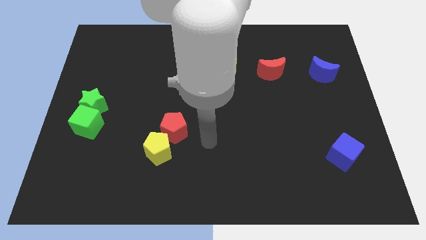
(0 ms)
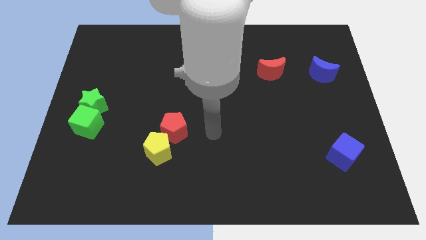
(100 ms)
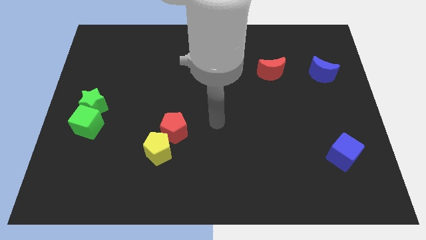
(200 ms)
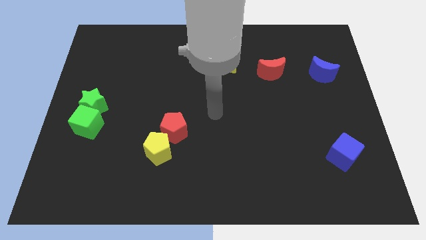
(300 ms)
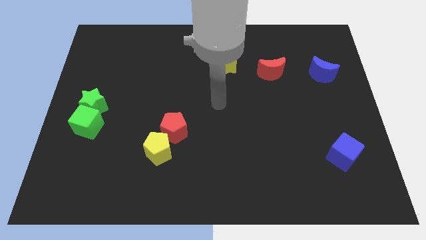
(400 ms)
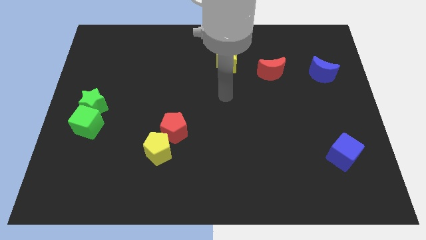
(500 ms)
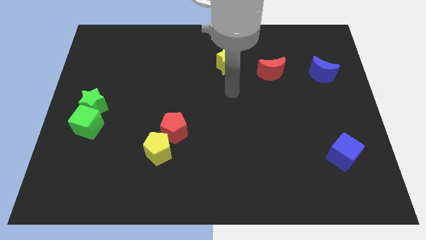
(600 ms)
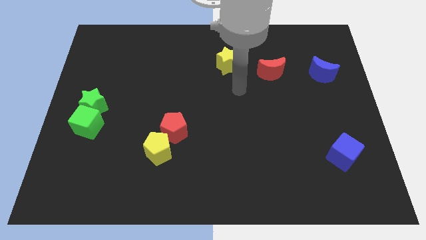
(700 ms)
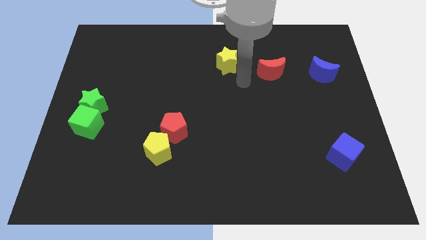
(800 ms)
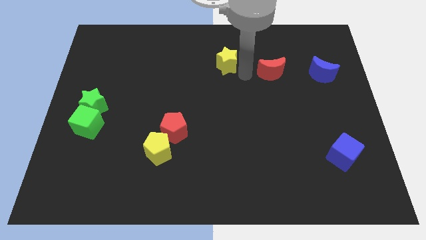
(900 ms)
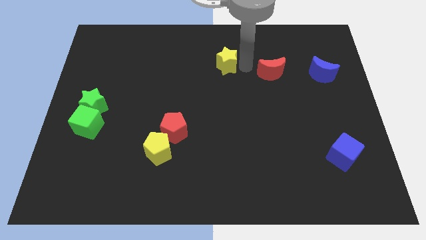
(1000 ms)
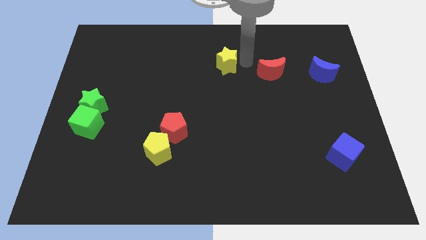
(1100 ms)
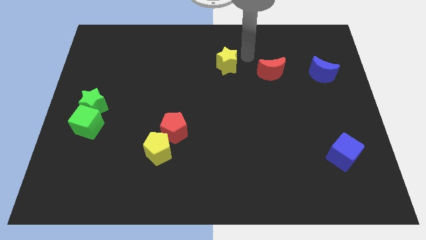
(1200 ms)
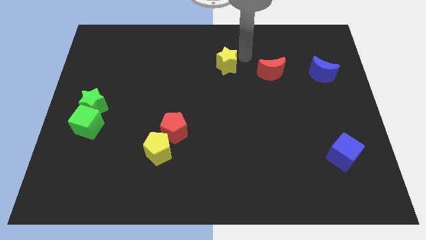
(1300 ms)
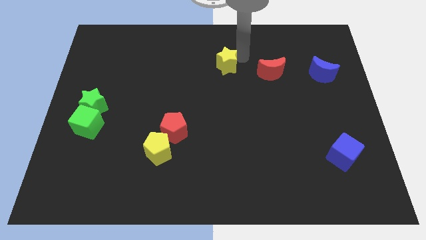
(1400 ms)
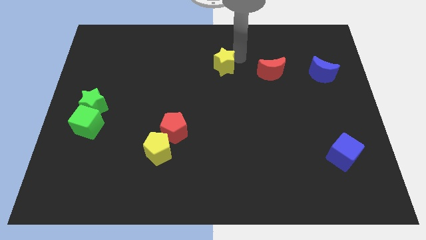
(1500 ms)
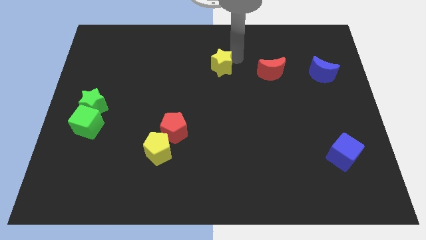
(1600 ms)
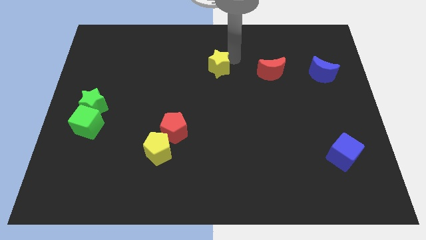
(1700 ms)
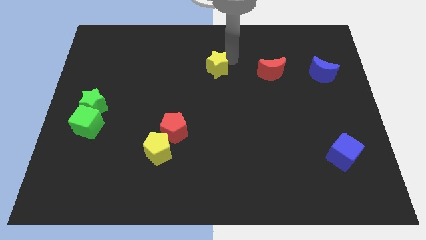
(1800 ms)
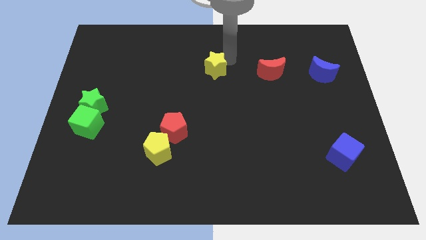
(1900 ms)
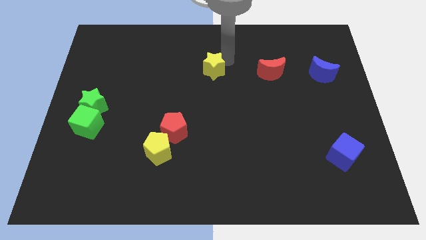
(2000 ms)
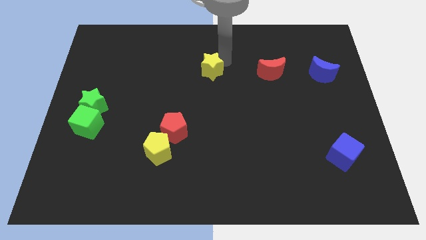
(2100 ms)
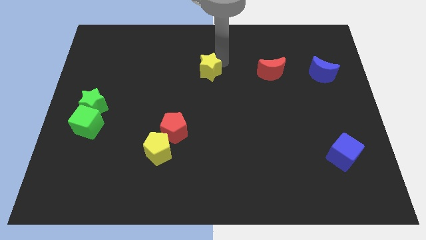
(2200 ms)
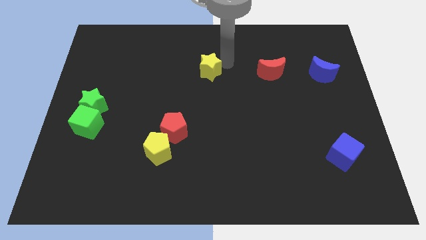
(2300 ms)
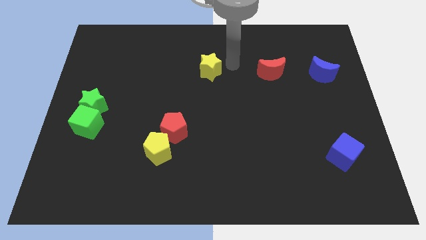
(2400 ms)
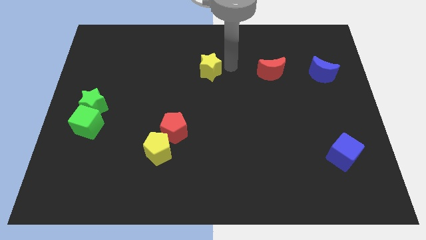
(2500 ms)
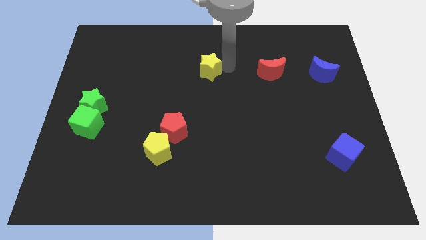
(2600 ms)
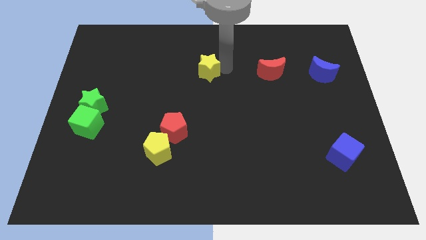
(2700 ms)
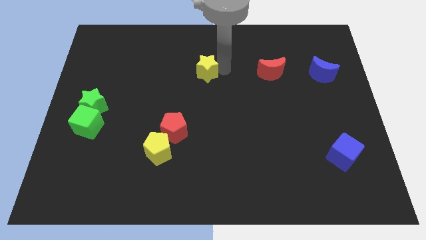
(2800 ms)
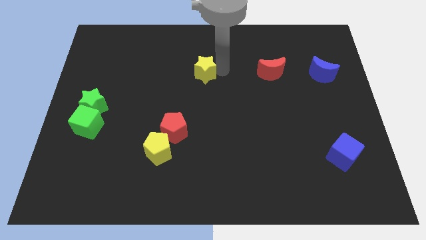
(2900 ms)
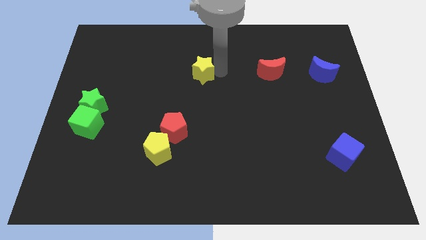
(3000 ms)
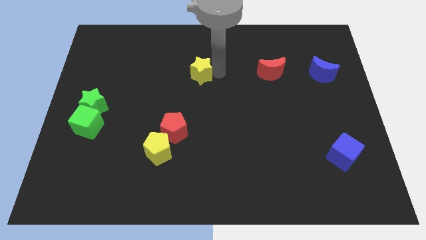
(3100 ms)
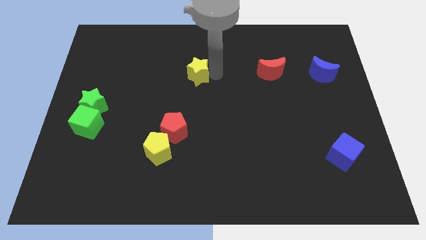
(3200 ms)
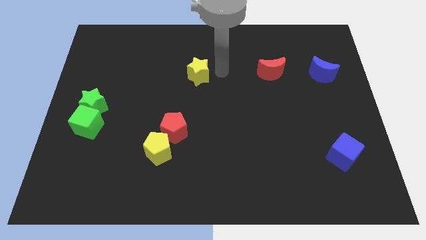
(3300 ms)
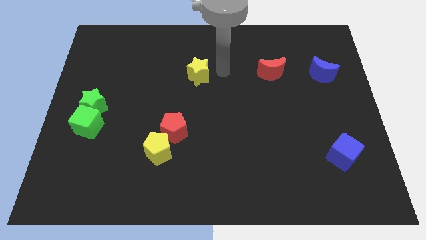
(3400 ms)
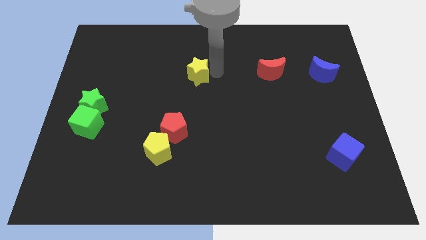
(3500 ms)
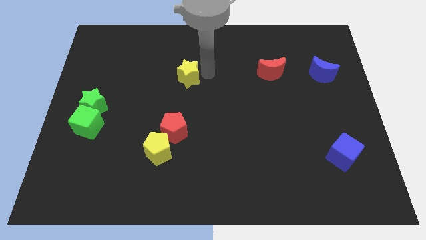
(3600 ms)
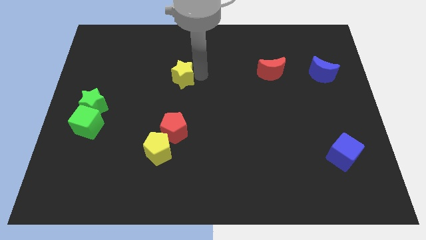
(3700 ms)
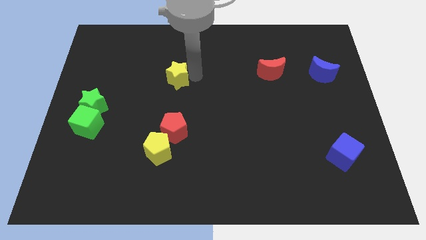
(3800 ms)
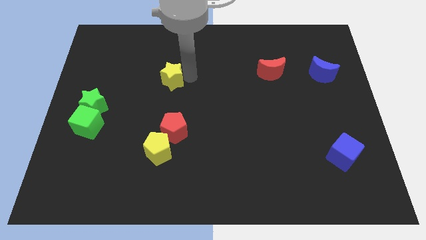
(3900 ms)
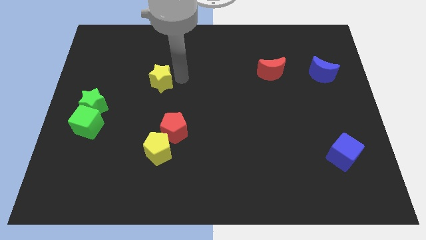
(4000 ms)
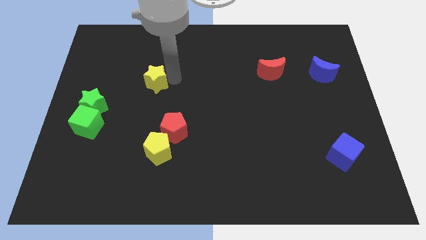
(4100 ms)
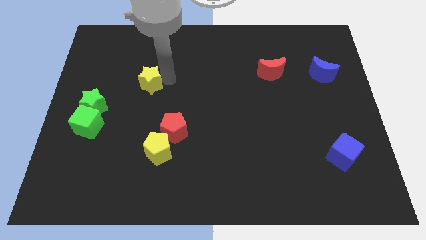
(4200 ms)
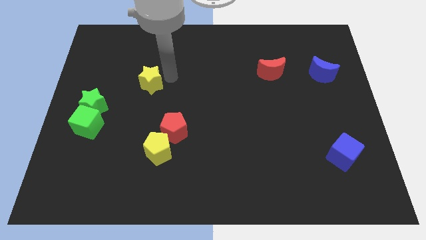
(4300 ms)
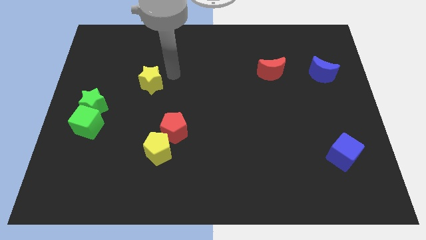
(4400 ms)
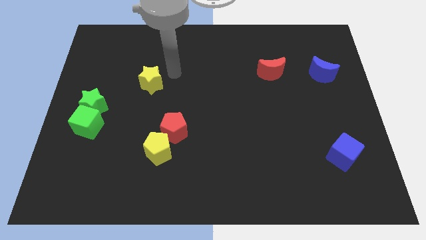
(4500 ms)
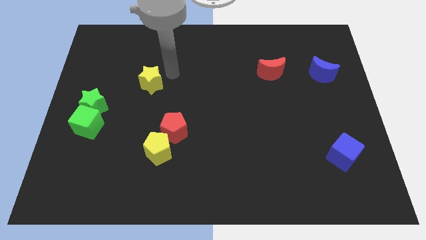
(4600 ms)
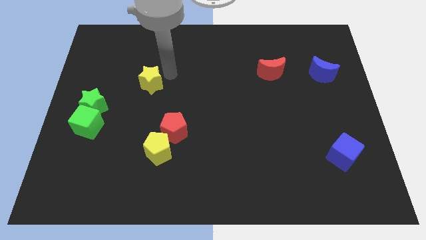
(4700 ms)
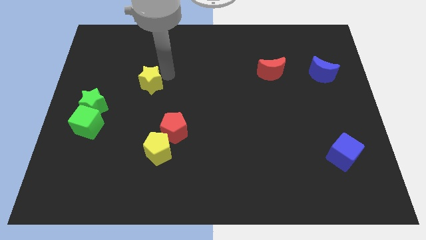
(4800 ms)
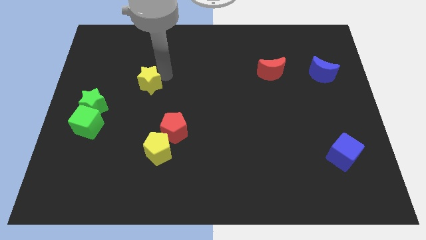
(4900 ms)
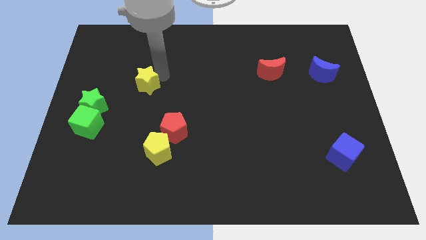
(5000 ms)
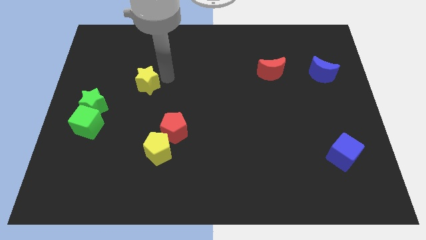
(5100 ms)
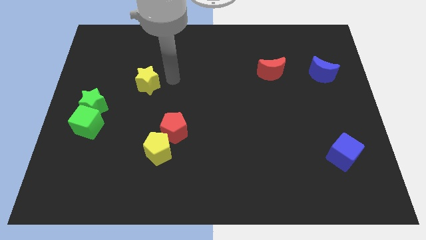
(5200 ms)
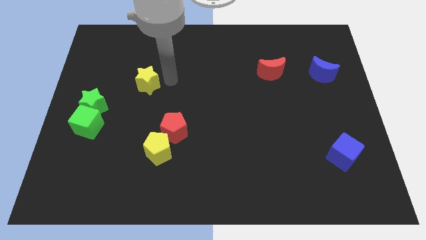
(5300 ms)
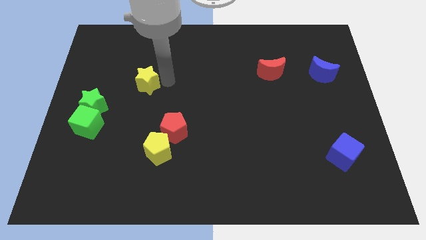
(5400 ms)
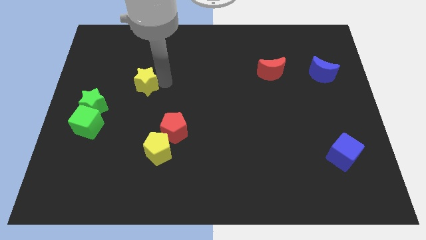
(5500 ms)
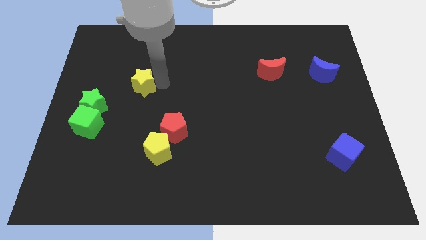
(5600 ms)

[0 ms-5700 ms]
slide the yellow star diagonally up and to the right of the green star

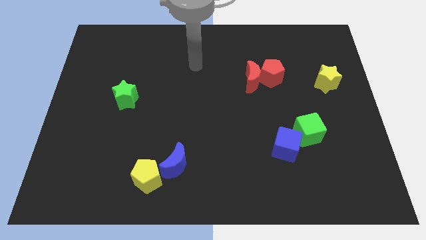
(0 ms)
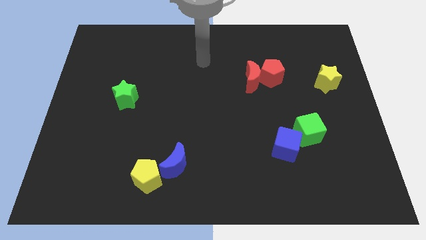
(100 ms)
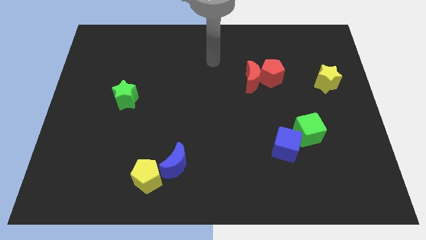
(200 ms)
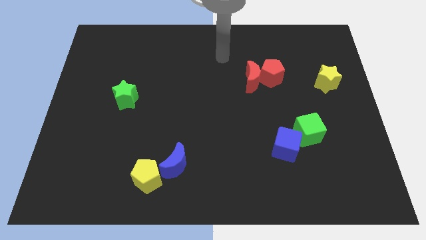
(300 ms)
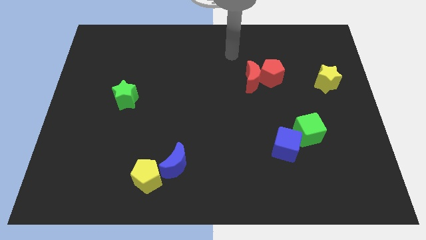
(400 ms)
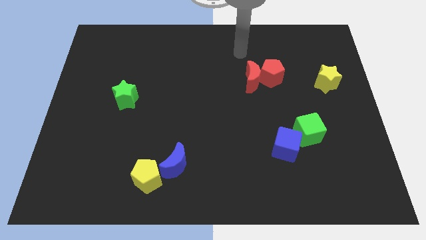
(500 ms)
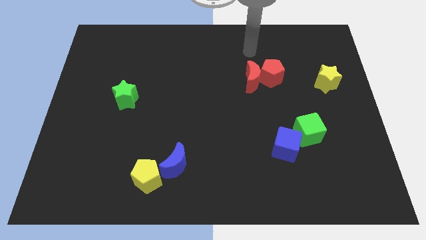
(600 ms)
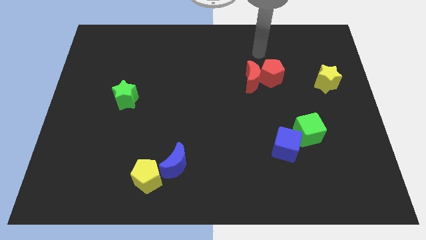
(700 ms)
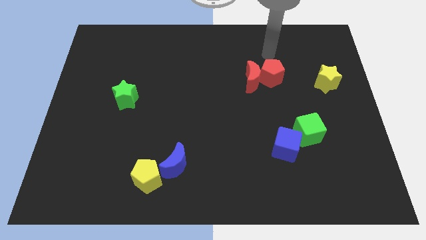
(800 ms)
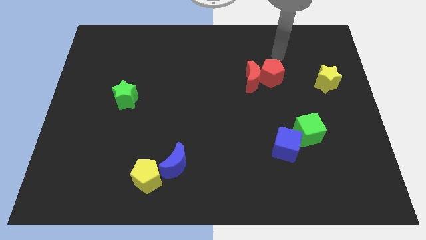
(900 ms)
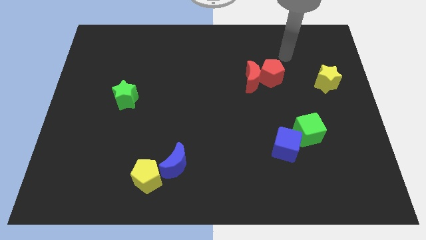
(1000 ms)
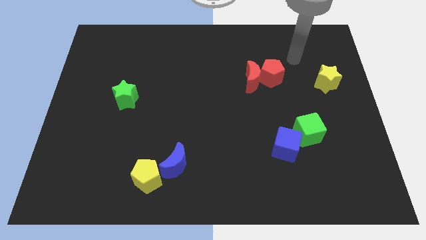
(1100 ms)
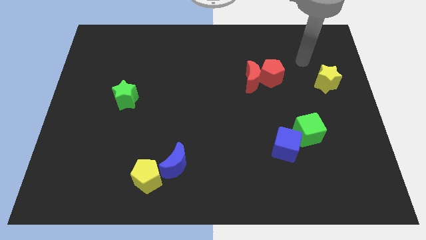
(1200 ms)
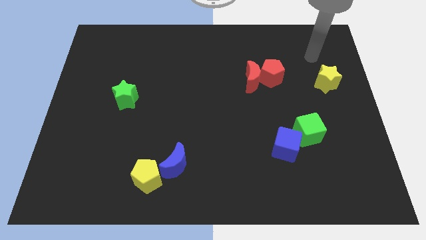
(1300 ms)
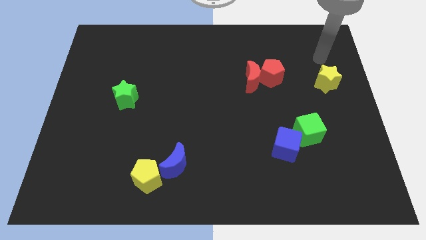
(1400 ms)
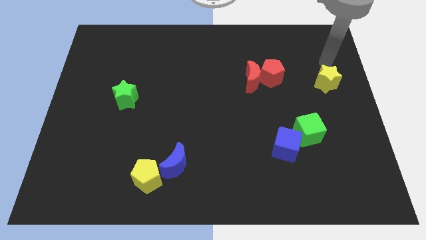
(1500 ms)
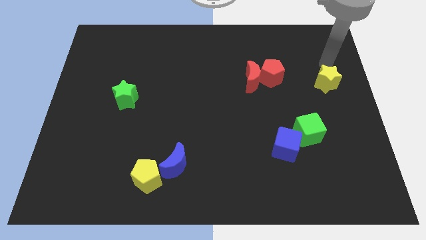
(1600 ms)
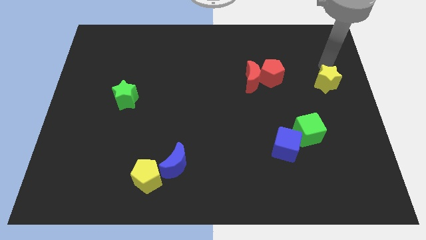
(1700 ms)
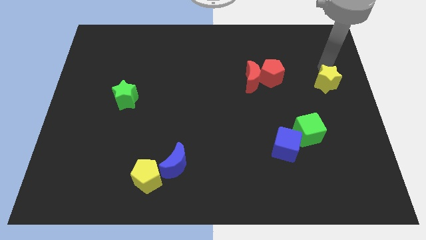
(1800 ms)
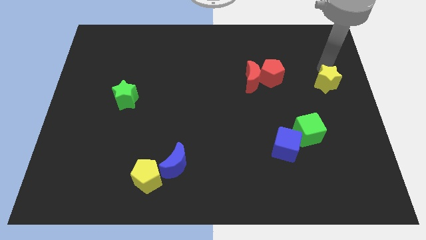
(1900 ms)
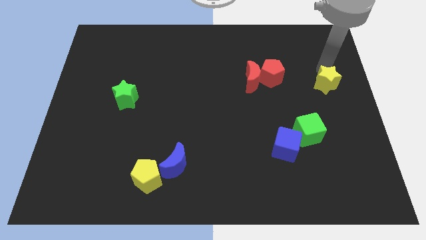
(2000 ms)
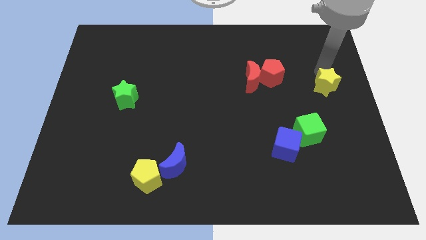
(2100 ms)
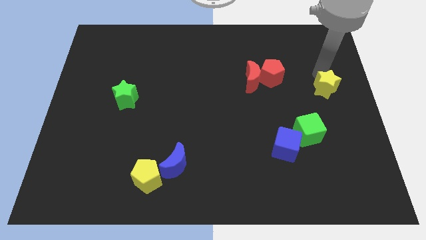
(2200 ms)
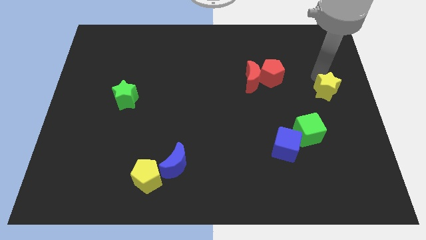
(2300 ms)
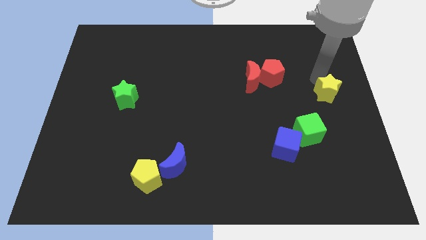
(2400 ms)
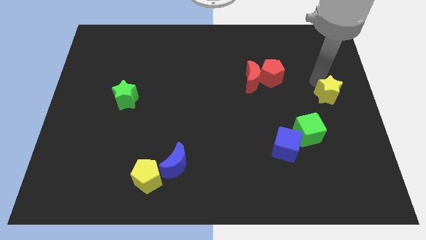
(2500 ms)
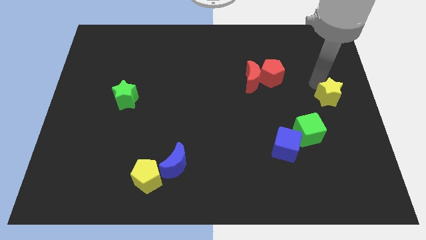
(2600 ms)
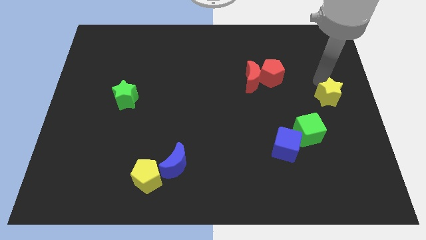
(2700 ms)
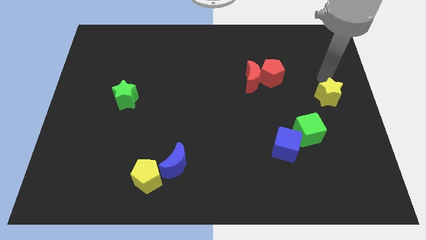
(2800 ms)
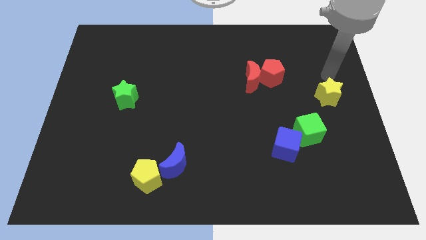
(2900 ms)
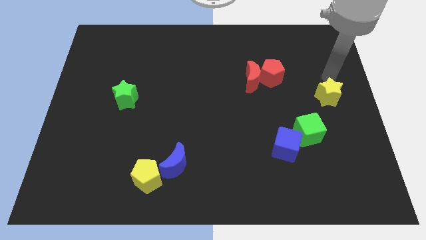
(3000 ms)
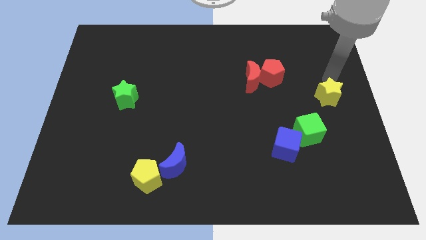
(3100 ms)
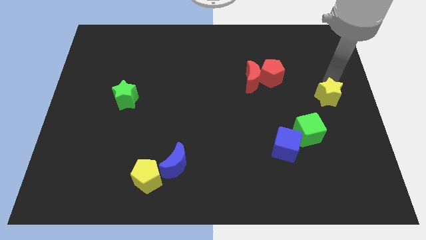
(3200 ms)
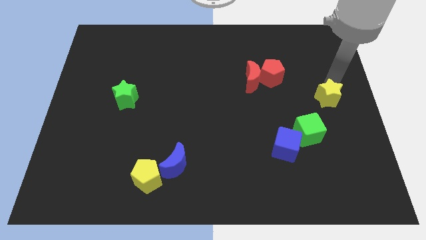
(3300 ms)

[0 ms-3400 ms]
move the yellow star to the top right of the green cube
